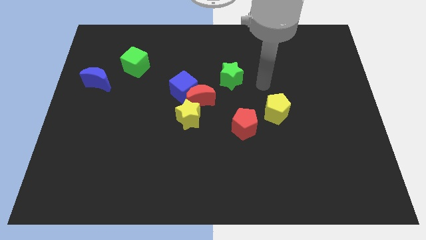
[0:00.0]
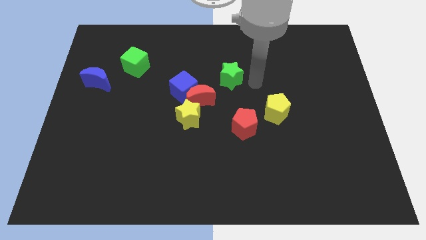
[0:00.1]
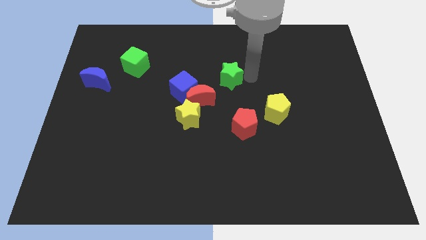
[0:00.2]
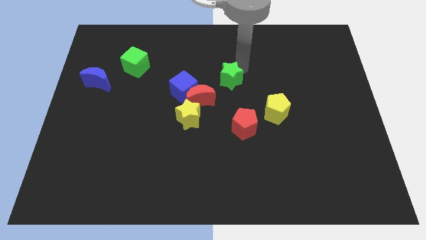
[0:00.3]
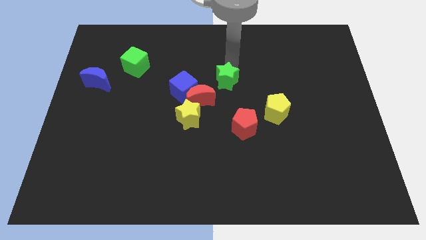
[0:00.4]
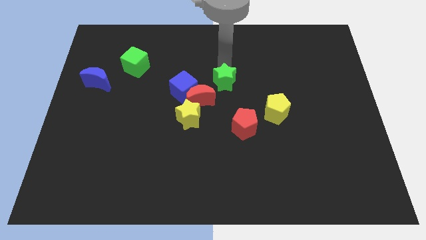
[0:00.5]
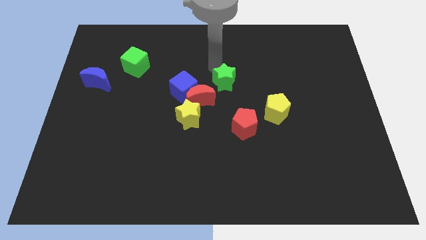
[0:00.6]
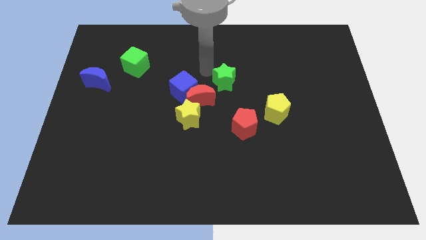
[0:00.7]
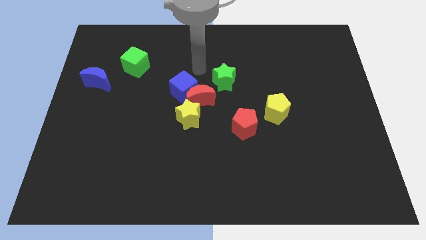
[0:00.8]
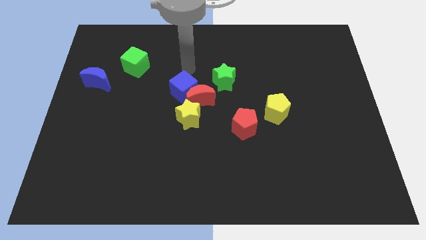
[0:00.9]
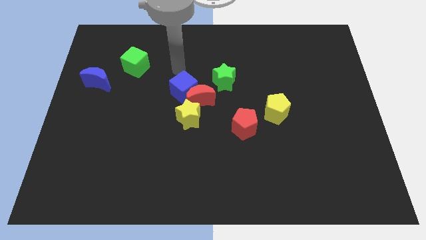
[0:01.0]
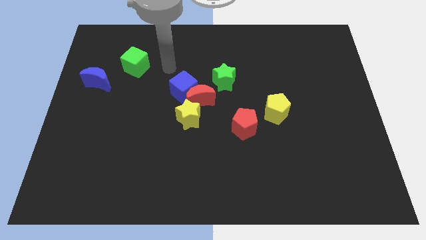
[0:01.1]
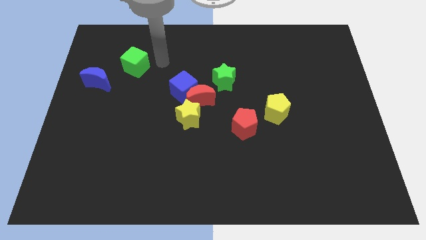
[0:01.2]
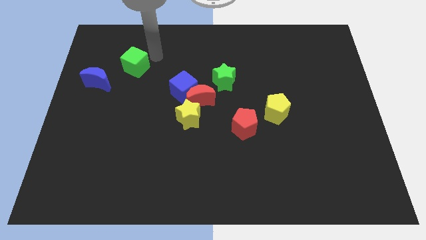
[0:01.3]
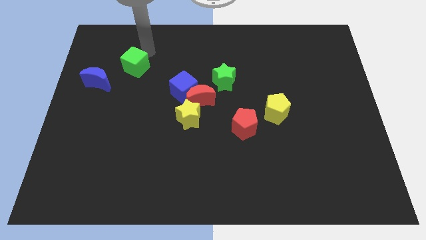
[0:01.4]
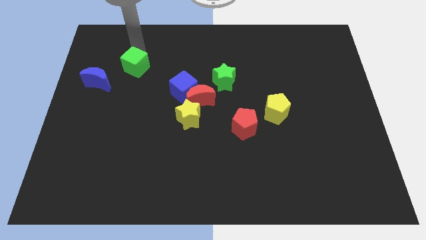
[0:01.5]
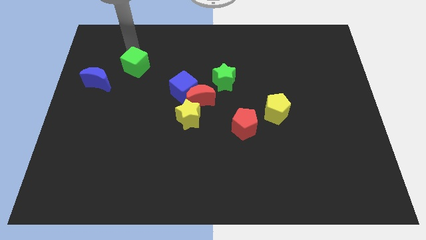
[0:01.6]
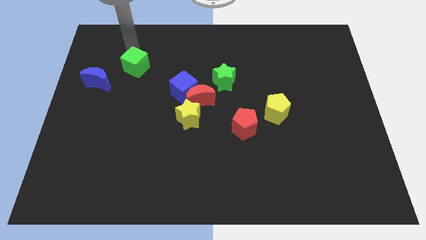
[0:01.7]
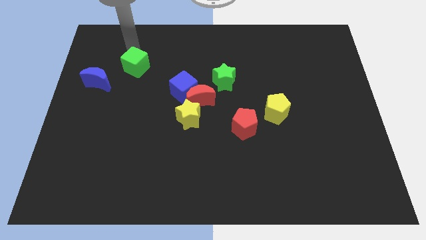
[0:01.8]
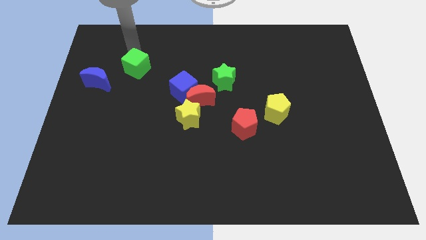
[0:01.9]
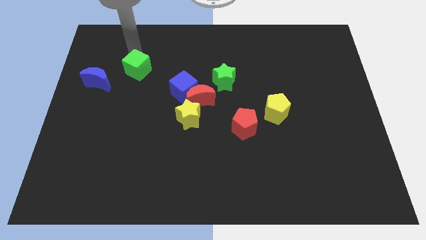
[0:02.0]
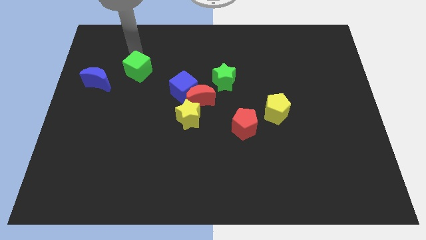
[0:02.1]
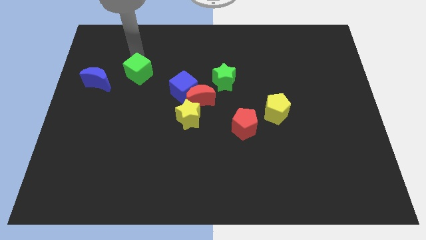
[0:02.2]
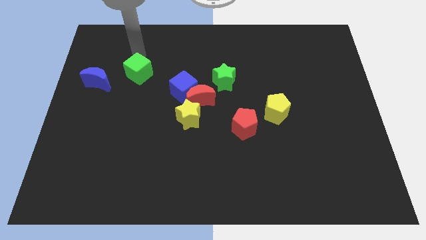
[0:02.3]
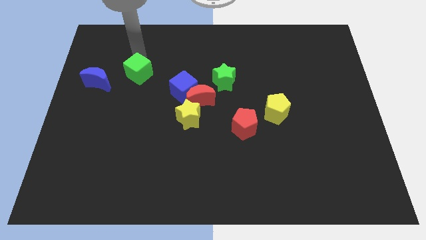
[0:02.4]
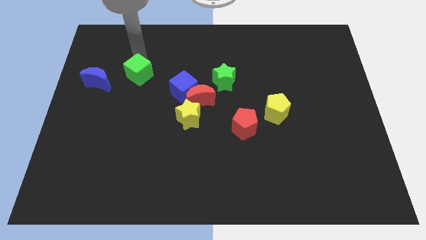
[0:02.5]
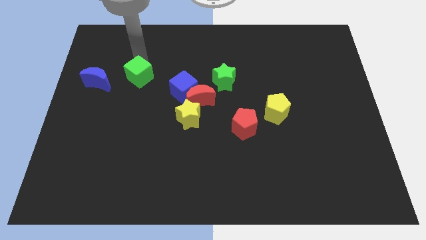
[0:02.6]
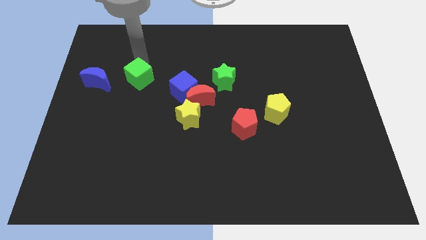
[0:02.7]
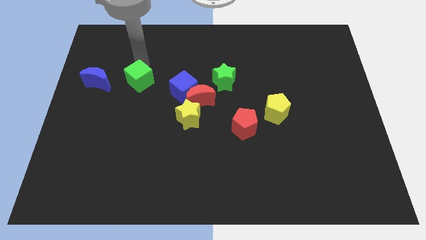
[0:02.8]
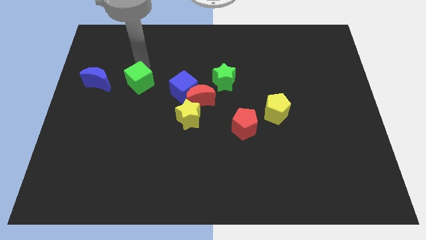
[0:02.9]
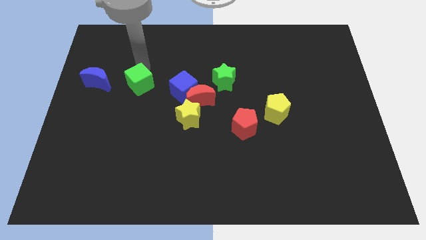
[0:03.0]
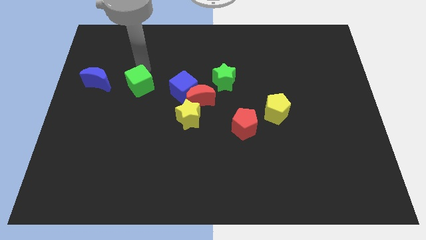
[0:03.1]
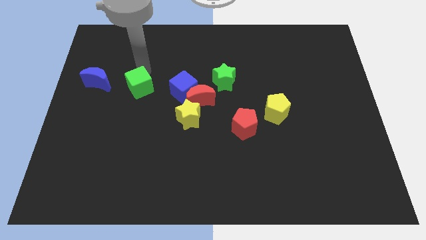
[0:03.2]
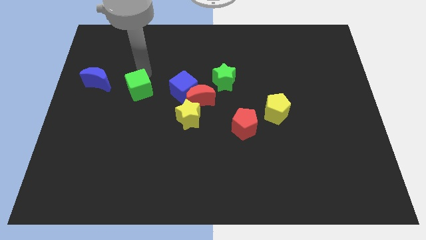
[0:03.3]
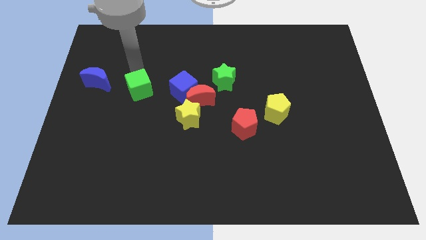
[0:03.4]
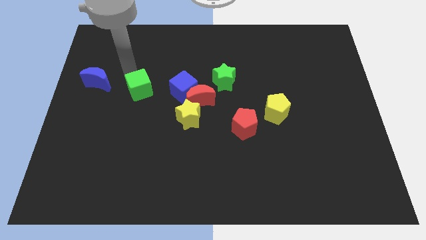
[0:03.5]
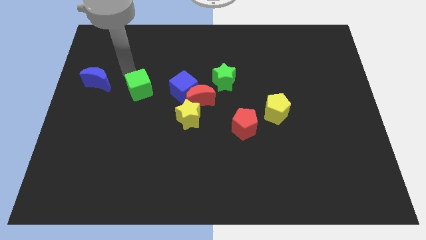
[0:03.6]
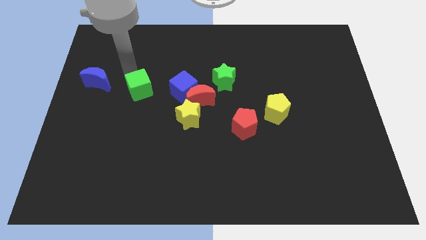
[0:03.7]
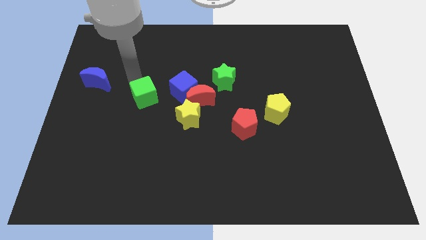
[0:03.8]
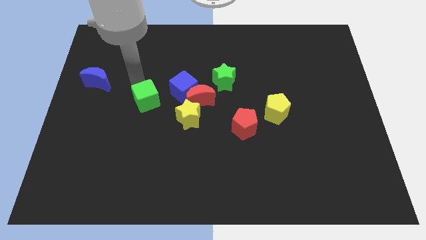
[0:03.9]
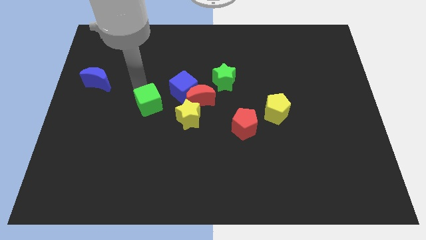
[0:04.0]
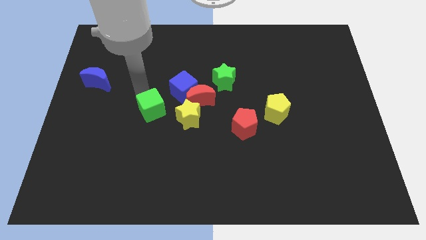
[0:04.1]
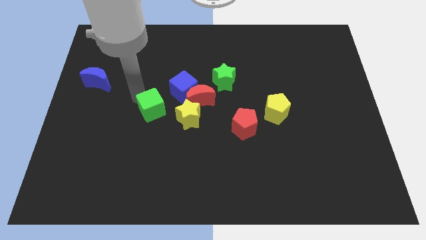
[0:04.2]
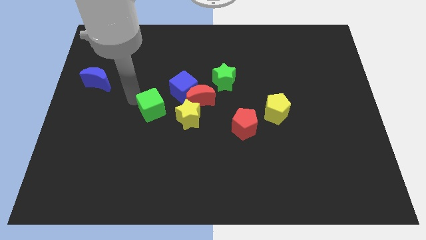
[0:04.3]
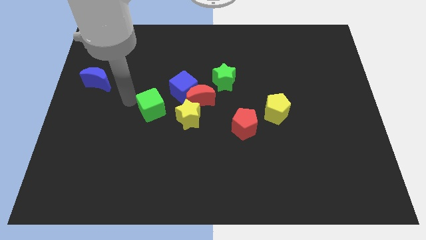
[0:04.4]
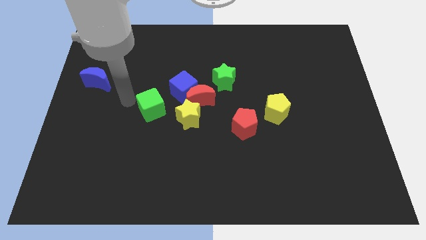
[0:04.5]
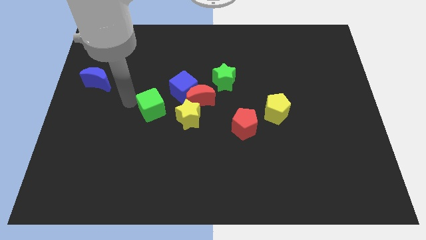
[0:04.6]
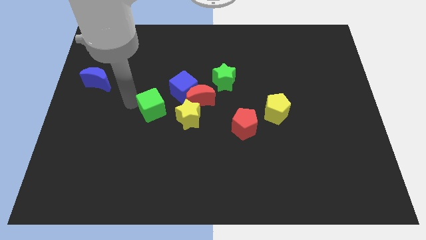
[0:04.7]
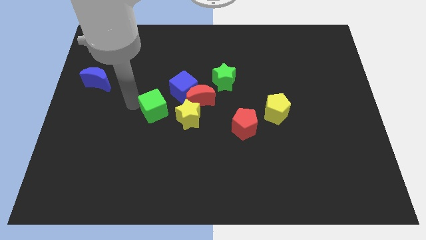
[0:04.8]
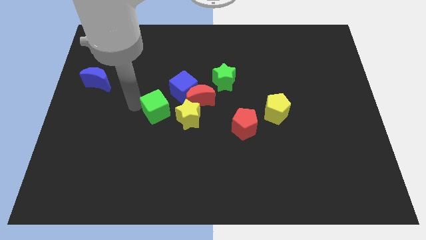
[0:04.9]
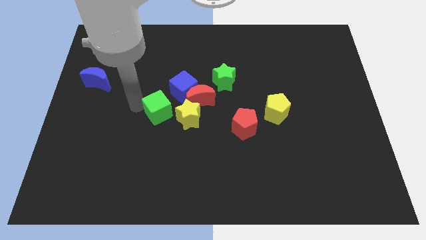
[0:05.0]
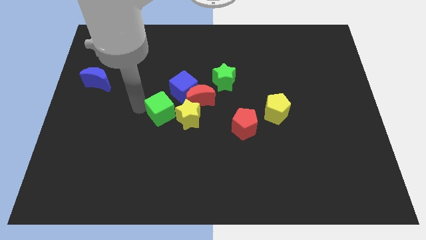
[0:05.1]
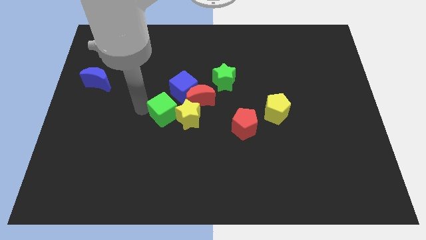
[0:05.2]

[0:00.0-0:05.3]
slide the green cube to the yellow star

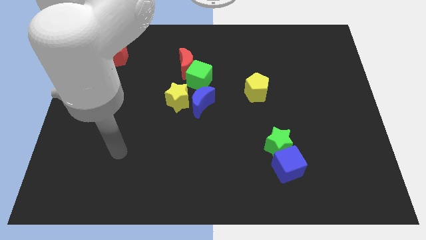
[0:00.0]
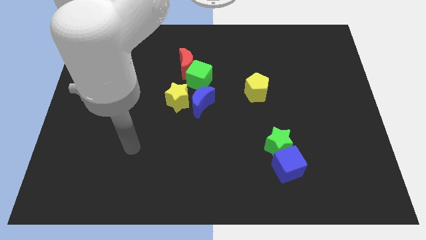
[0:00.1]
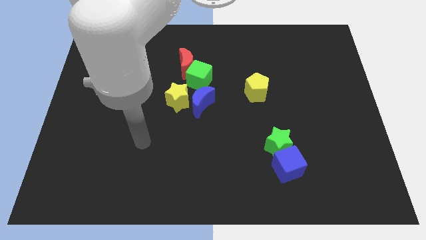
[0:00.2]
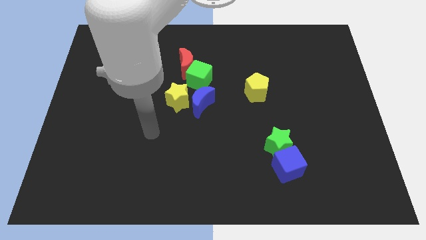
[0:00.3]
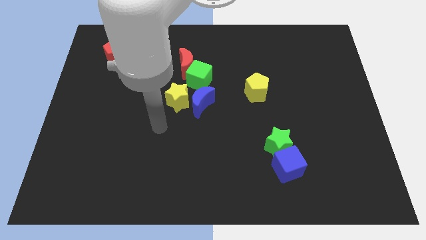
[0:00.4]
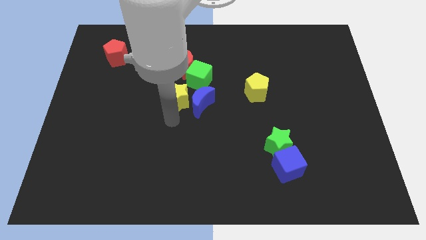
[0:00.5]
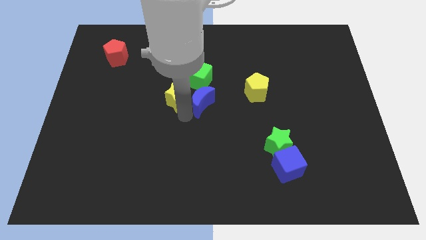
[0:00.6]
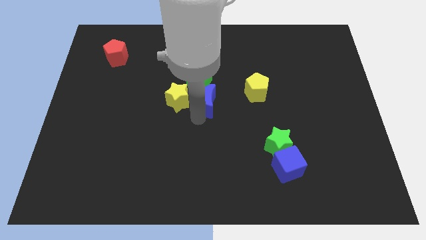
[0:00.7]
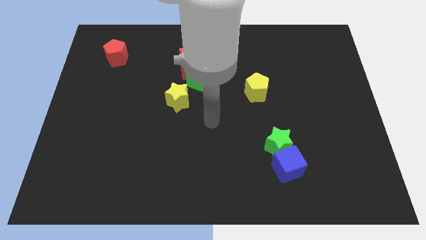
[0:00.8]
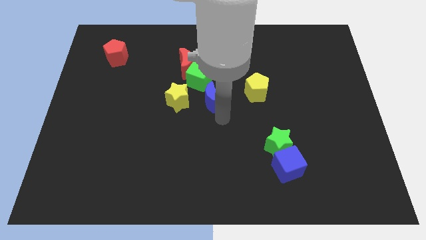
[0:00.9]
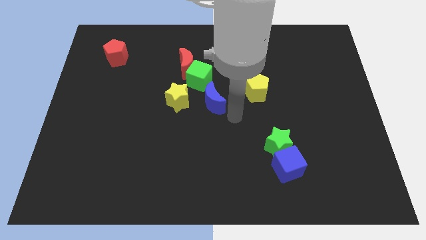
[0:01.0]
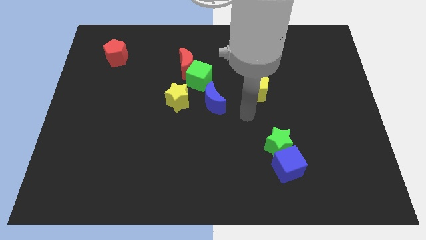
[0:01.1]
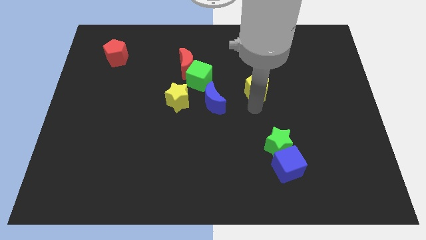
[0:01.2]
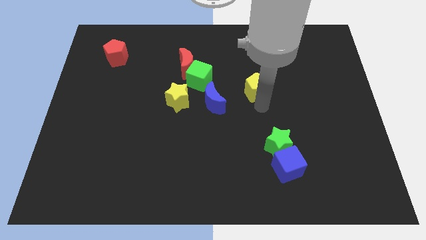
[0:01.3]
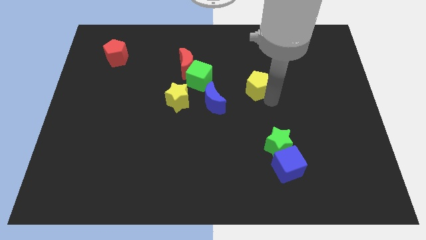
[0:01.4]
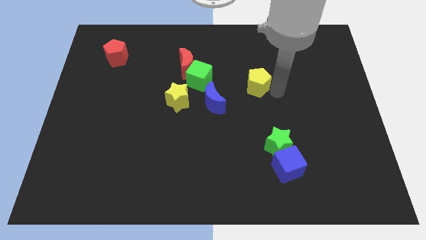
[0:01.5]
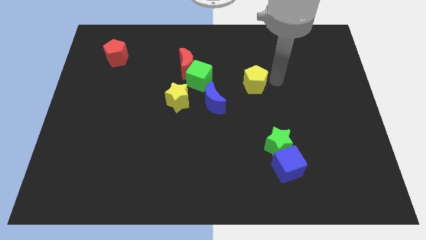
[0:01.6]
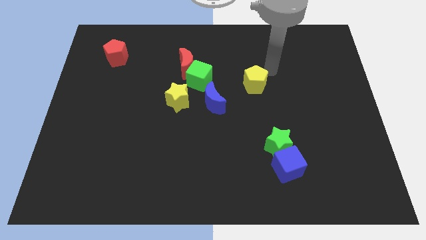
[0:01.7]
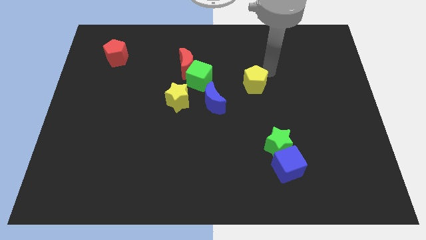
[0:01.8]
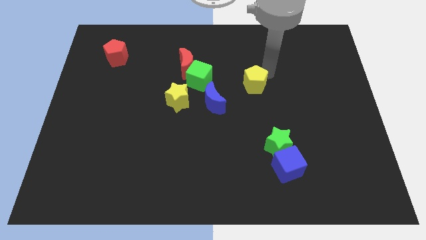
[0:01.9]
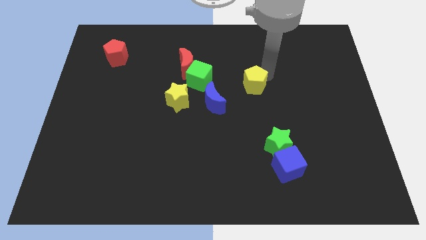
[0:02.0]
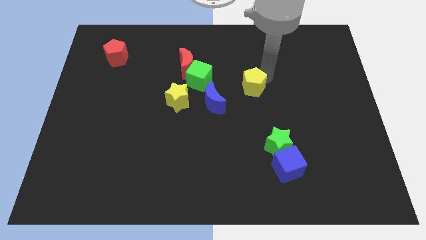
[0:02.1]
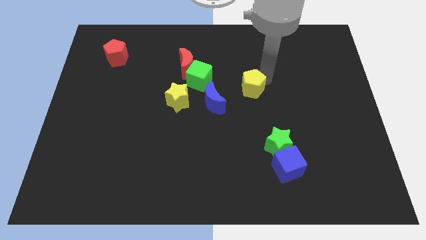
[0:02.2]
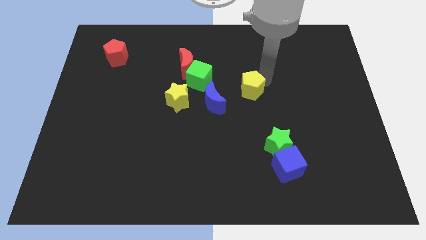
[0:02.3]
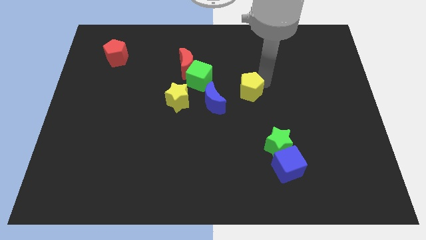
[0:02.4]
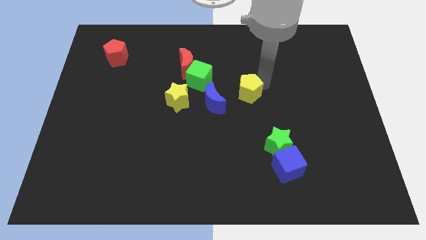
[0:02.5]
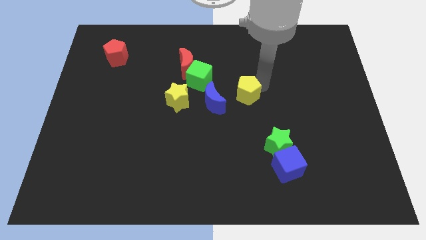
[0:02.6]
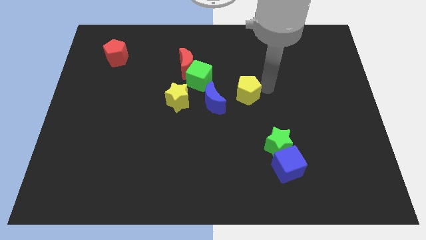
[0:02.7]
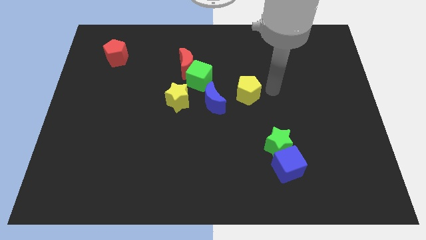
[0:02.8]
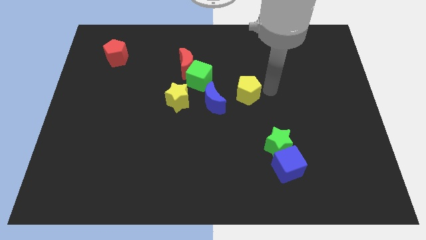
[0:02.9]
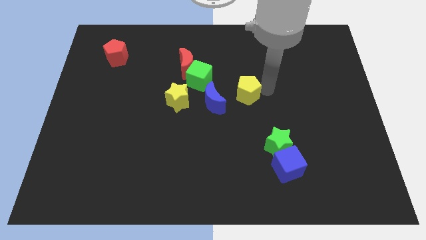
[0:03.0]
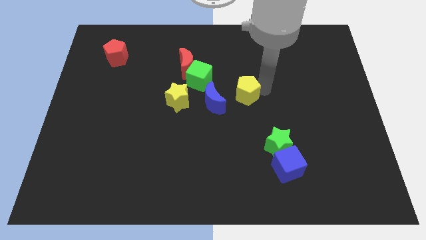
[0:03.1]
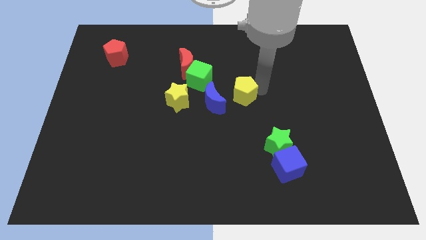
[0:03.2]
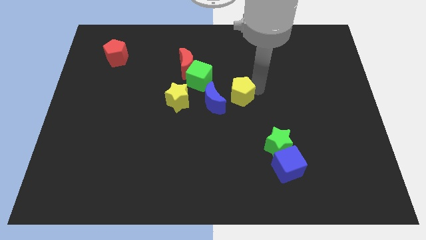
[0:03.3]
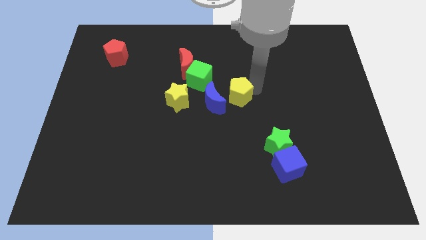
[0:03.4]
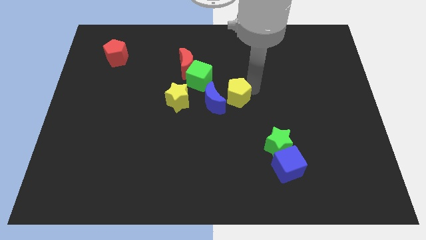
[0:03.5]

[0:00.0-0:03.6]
push the yellow pentagon next to the blue moon
